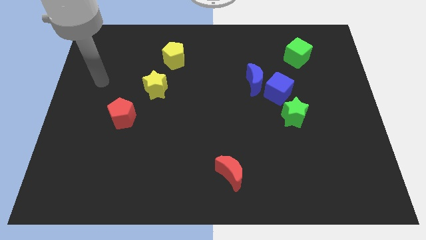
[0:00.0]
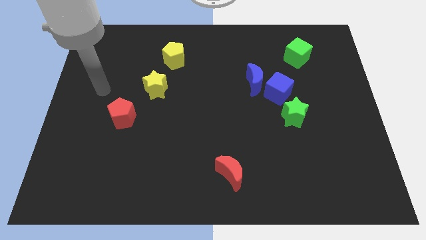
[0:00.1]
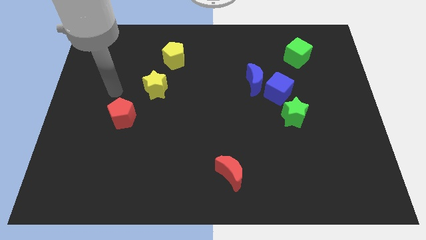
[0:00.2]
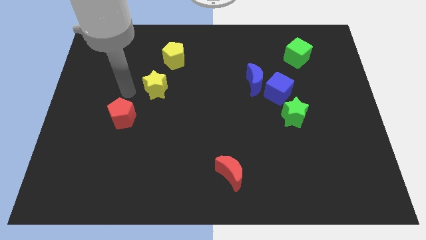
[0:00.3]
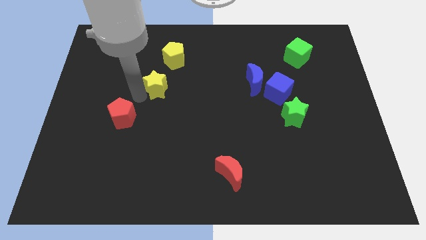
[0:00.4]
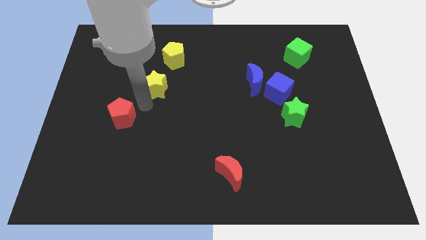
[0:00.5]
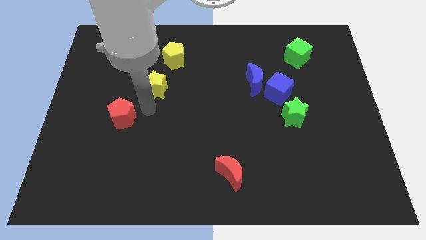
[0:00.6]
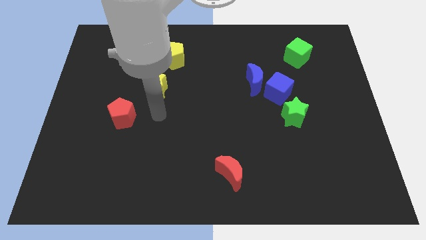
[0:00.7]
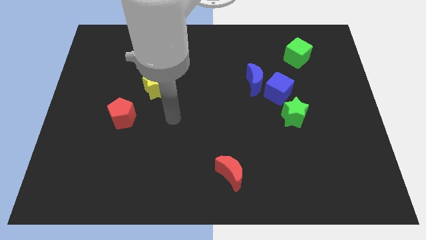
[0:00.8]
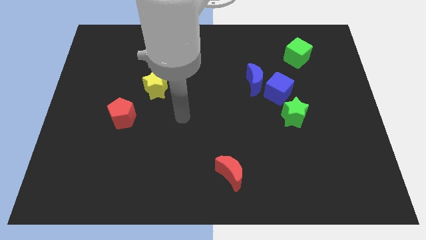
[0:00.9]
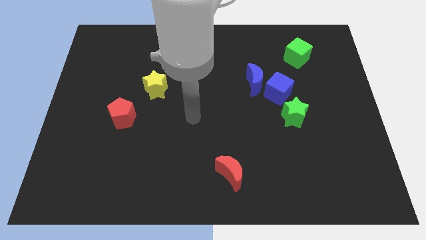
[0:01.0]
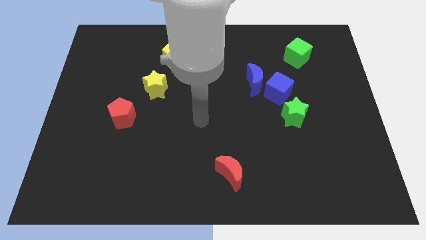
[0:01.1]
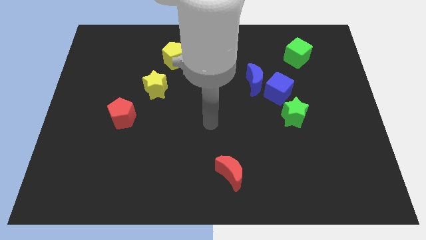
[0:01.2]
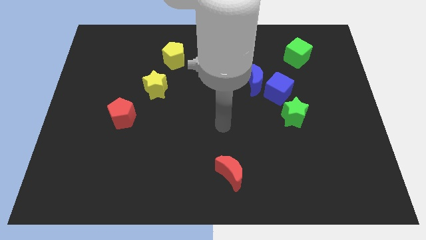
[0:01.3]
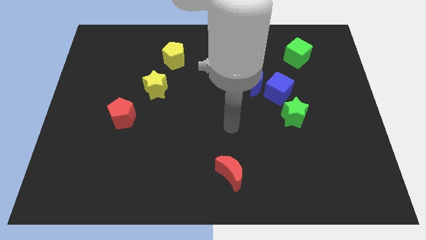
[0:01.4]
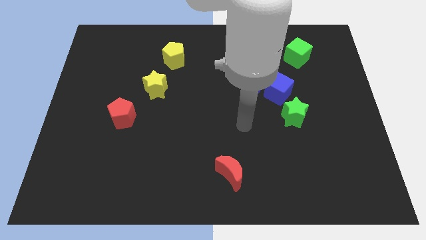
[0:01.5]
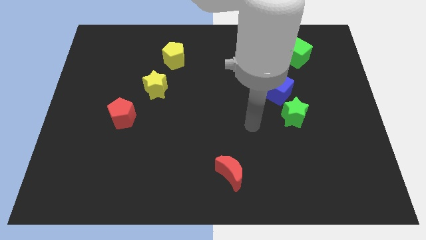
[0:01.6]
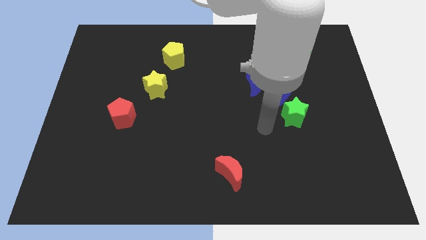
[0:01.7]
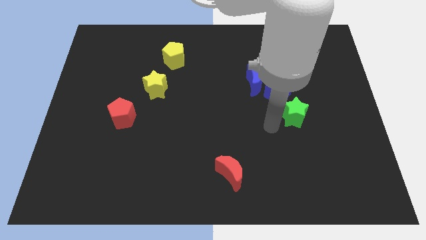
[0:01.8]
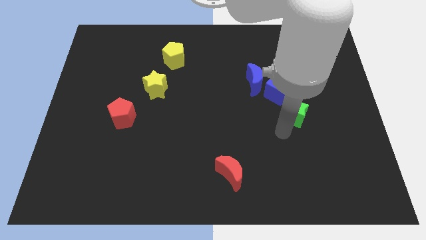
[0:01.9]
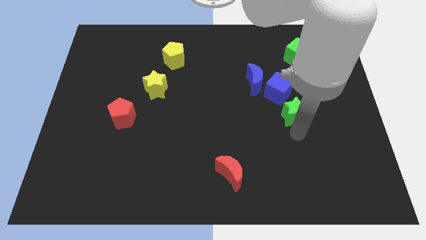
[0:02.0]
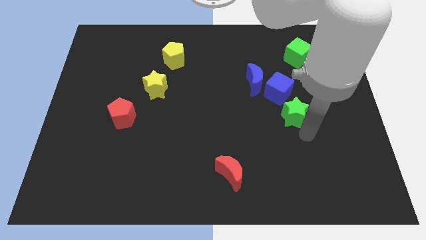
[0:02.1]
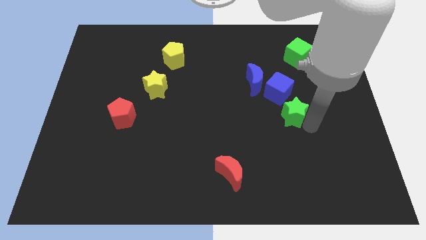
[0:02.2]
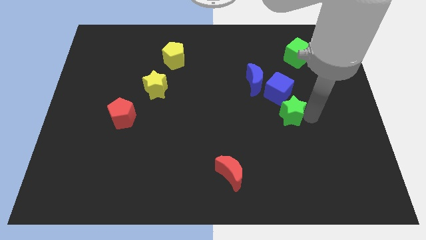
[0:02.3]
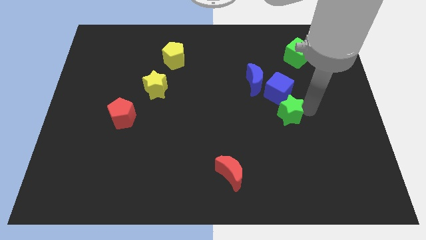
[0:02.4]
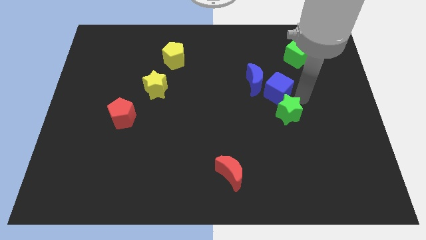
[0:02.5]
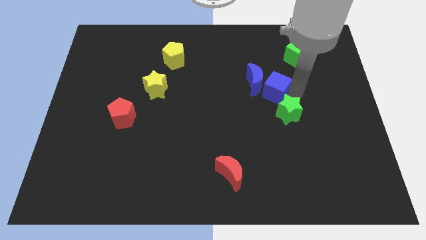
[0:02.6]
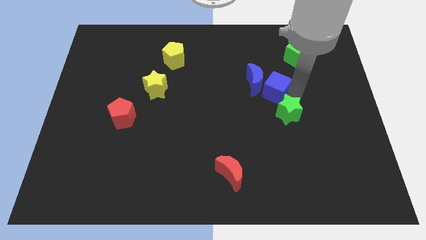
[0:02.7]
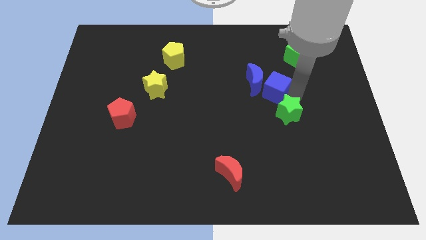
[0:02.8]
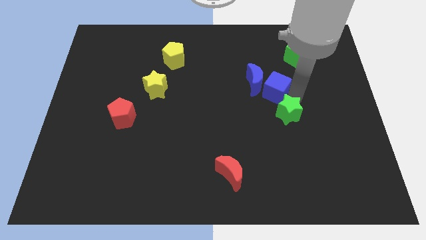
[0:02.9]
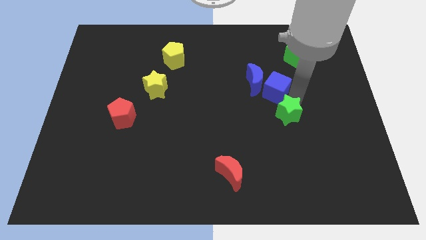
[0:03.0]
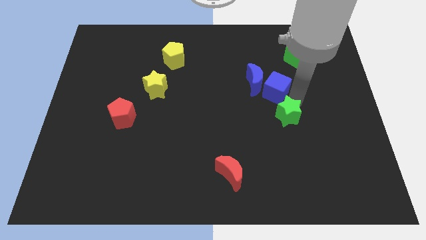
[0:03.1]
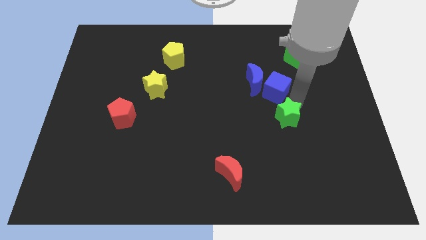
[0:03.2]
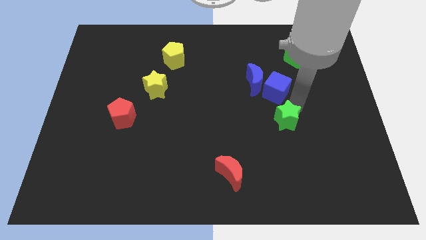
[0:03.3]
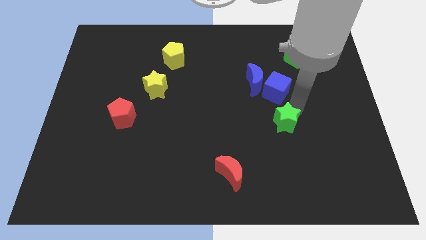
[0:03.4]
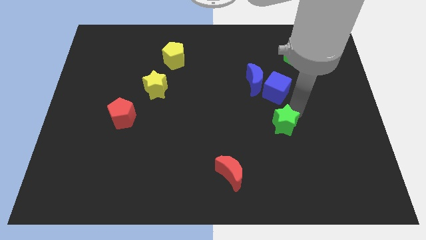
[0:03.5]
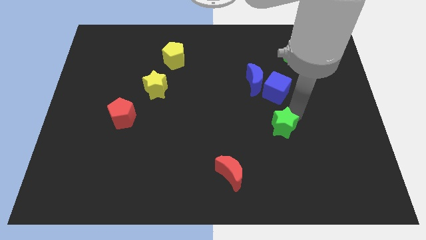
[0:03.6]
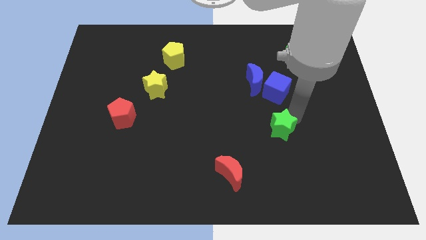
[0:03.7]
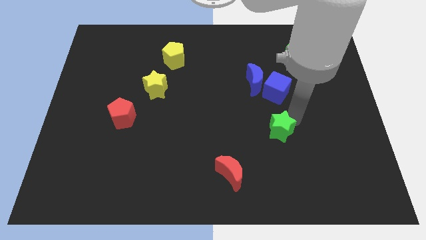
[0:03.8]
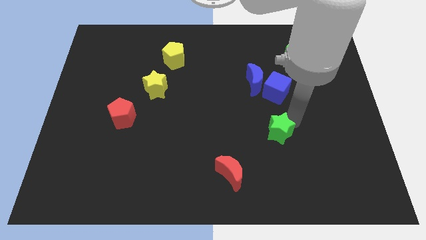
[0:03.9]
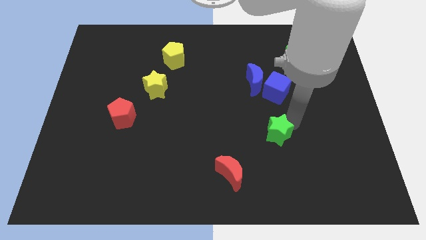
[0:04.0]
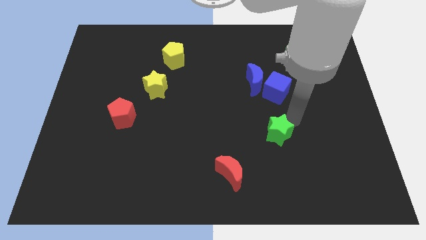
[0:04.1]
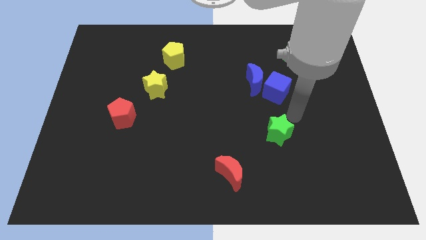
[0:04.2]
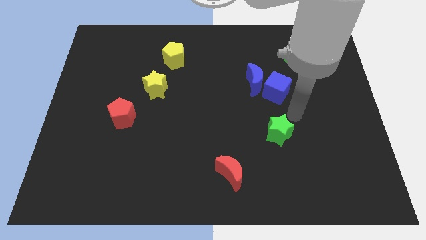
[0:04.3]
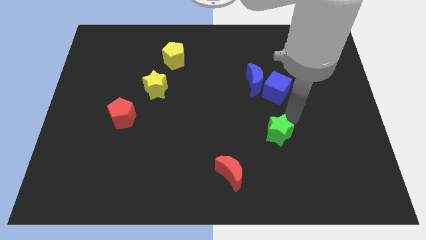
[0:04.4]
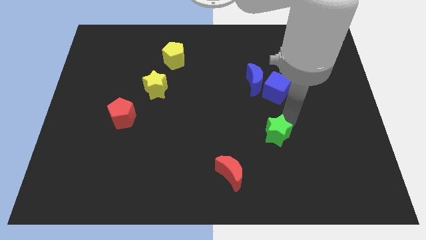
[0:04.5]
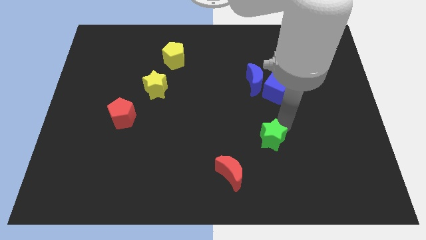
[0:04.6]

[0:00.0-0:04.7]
slide the green star diagonally up and to the right of the red moon

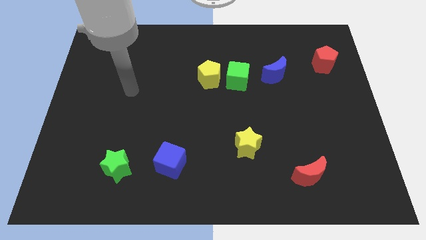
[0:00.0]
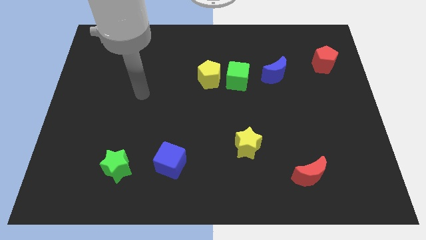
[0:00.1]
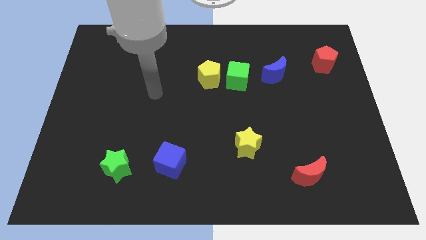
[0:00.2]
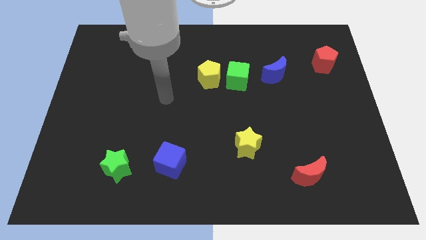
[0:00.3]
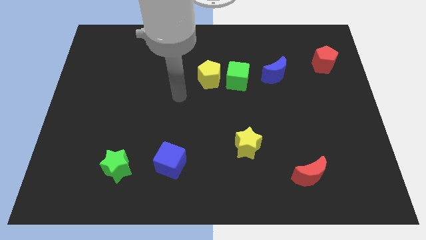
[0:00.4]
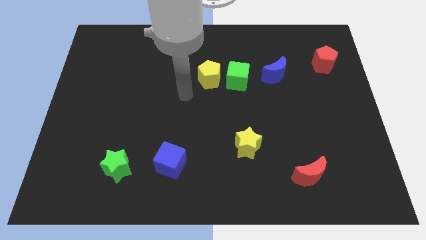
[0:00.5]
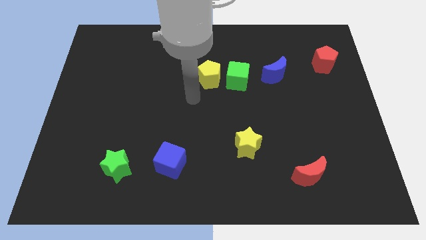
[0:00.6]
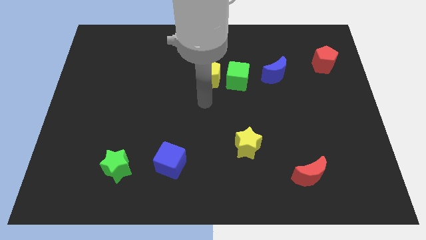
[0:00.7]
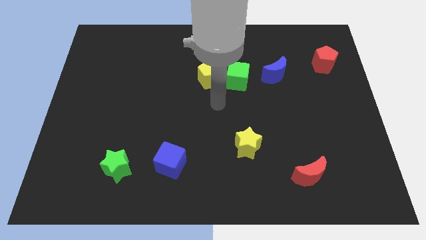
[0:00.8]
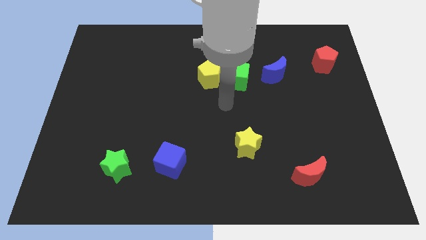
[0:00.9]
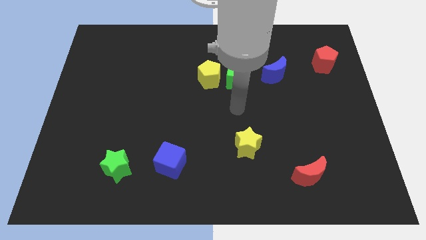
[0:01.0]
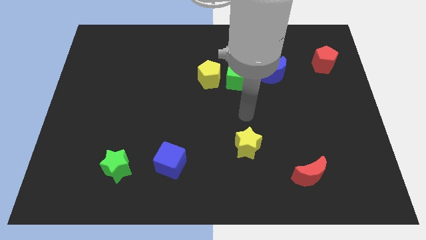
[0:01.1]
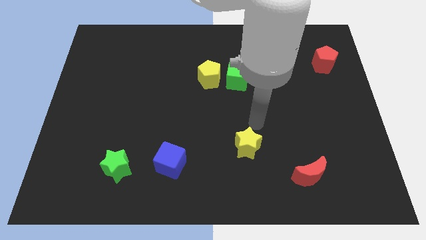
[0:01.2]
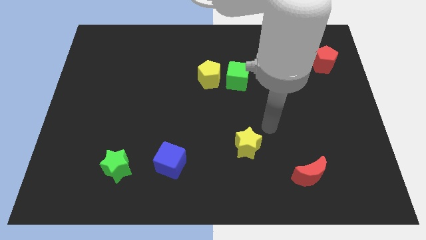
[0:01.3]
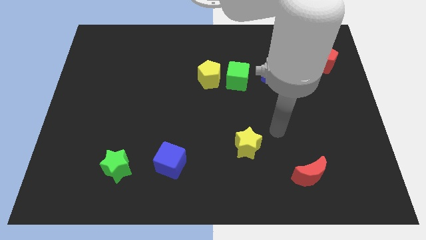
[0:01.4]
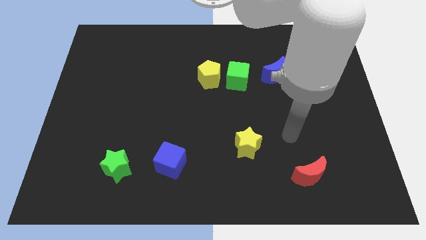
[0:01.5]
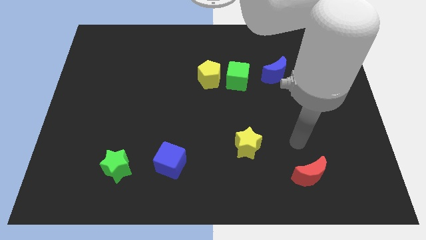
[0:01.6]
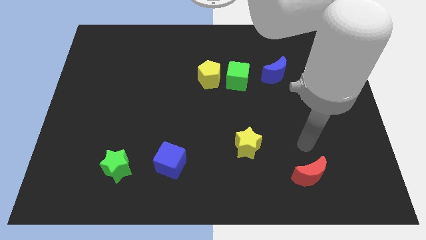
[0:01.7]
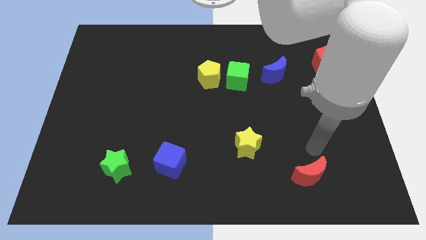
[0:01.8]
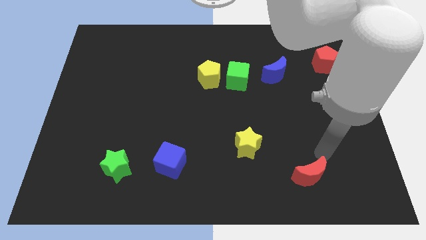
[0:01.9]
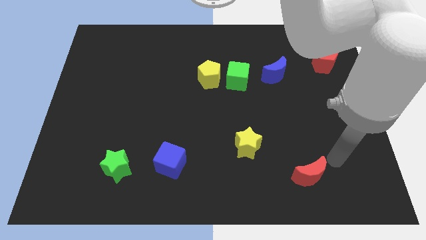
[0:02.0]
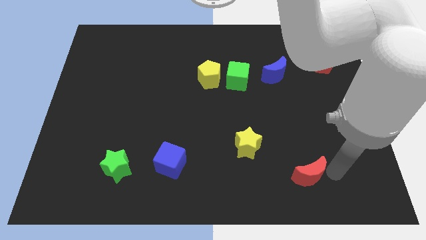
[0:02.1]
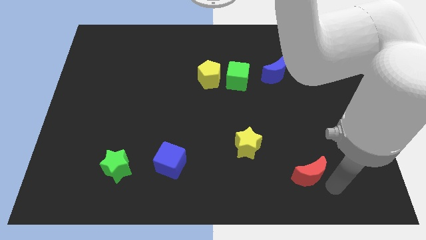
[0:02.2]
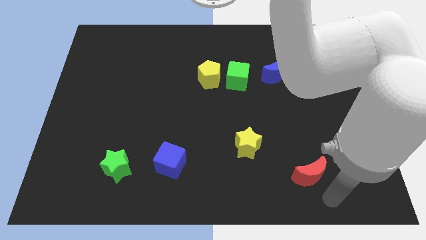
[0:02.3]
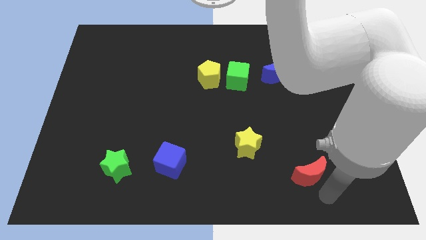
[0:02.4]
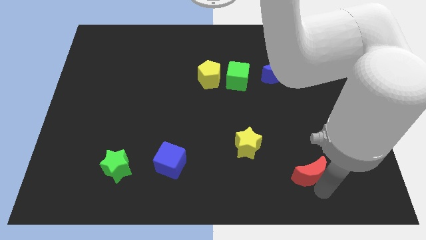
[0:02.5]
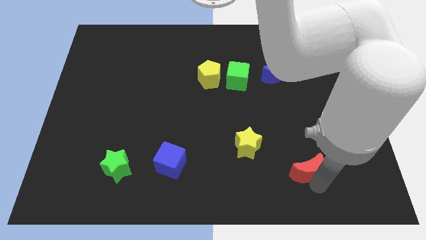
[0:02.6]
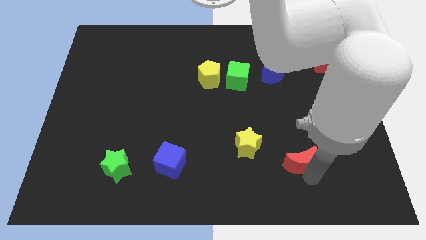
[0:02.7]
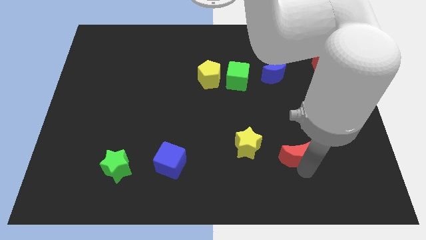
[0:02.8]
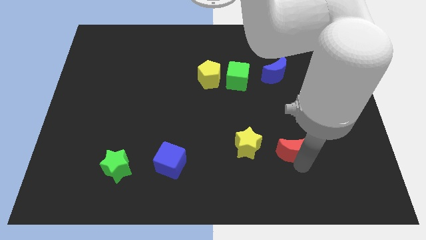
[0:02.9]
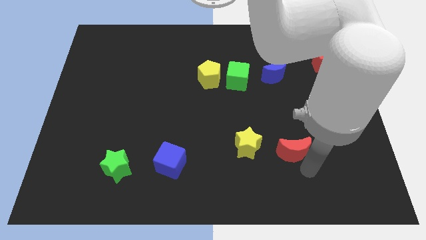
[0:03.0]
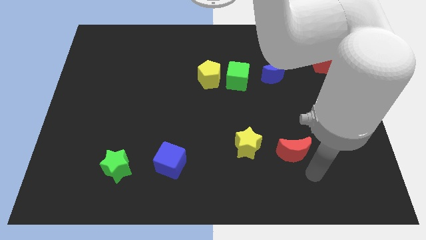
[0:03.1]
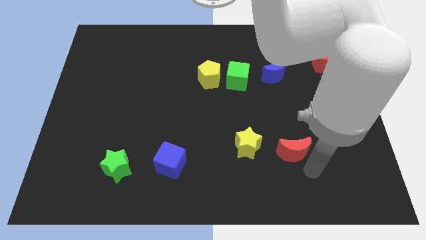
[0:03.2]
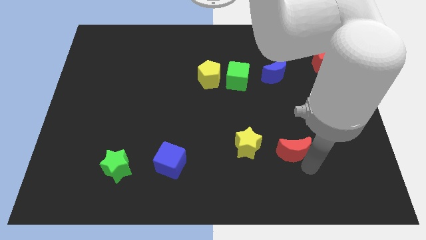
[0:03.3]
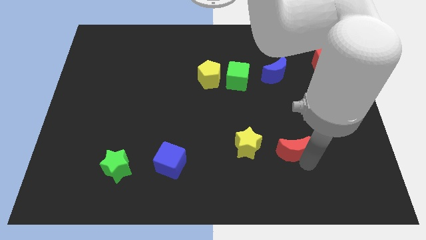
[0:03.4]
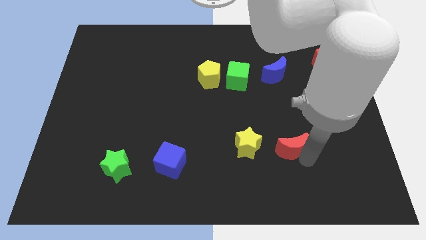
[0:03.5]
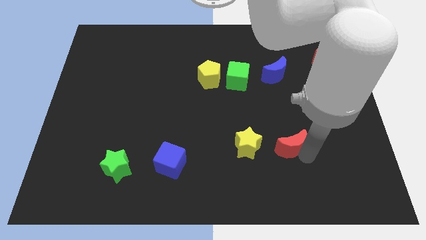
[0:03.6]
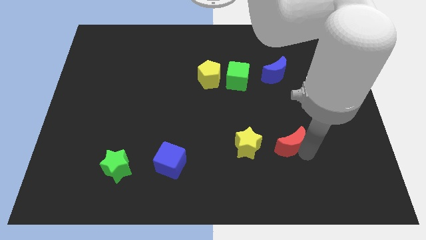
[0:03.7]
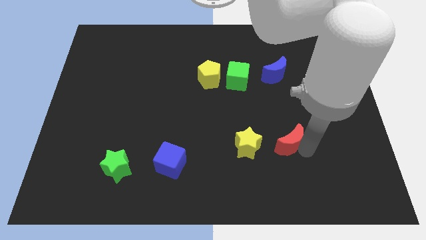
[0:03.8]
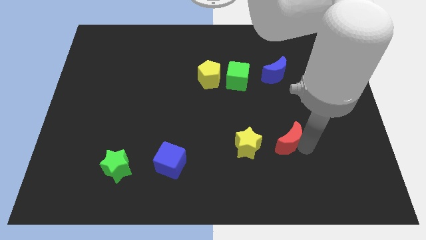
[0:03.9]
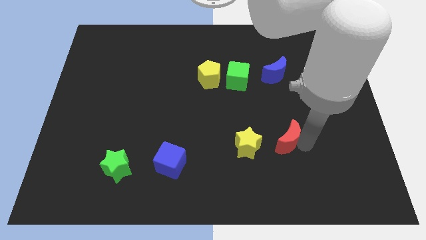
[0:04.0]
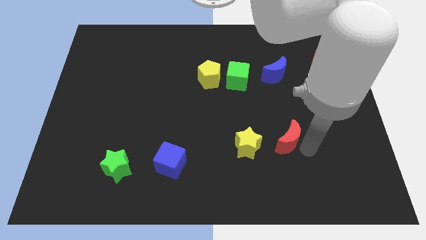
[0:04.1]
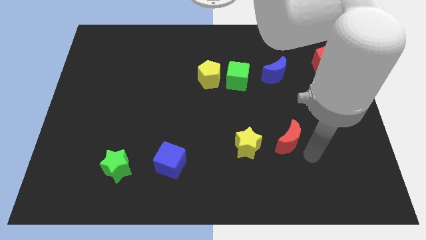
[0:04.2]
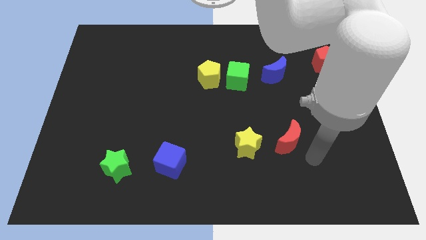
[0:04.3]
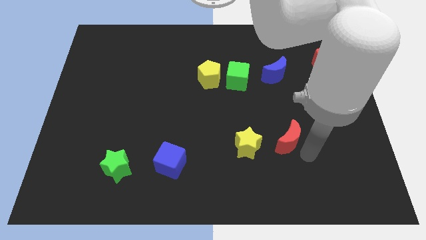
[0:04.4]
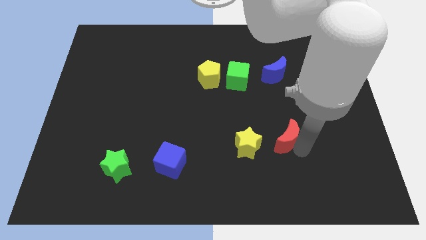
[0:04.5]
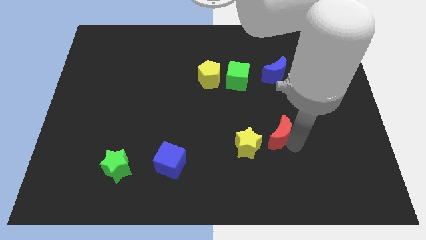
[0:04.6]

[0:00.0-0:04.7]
put the red moon to the top right of the yellow star
